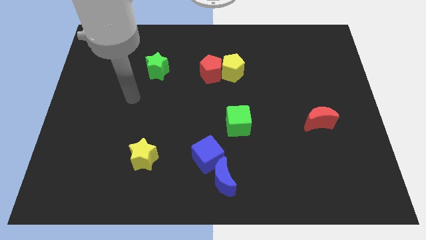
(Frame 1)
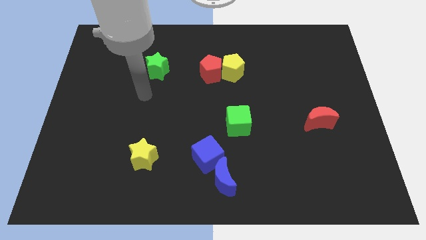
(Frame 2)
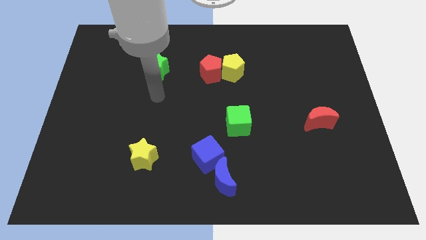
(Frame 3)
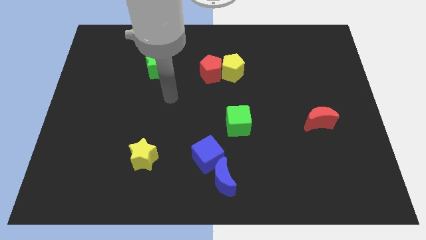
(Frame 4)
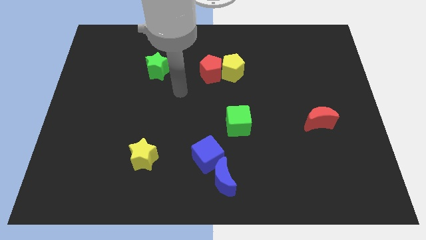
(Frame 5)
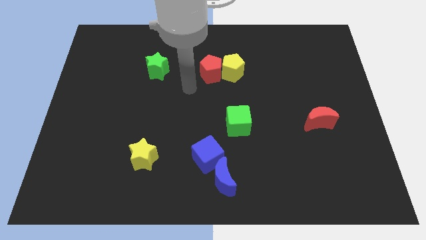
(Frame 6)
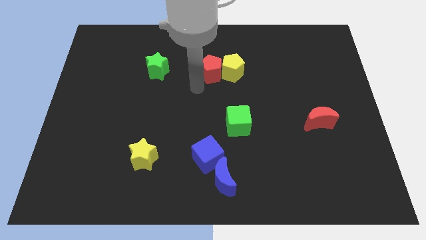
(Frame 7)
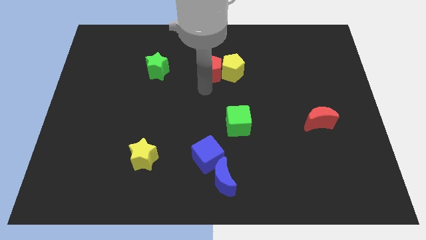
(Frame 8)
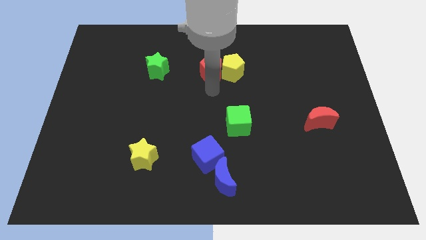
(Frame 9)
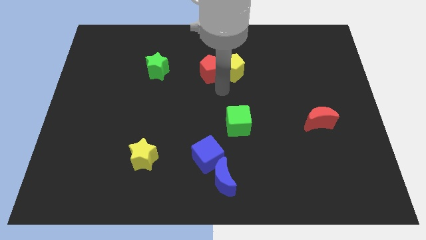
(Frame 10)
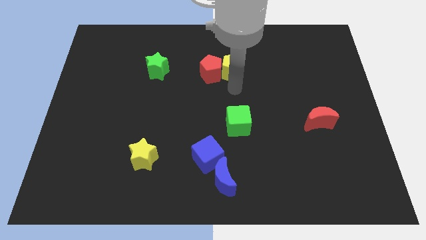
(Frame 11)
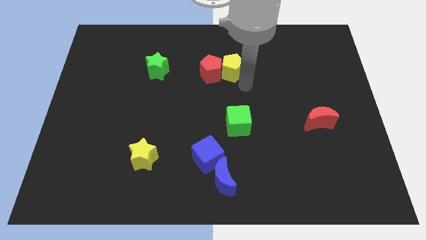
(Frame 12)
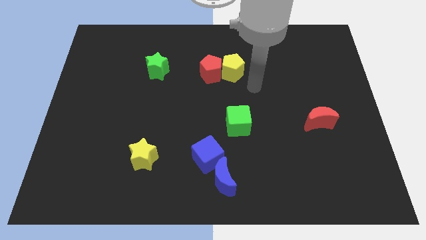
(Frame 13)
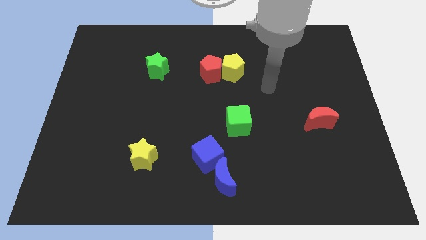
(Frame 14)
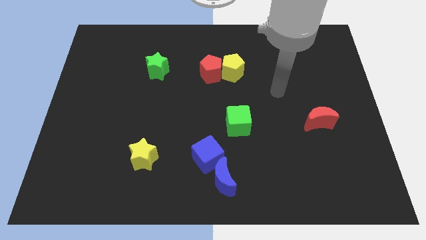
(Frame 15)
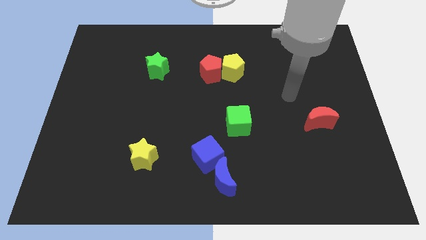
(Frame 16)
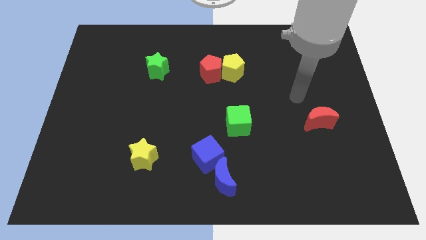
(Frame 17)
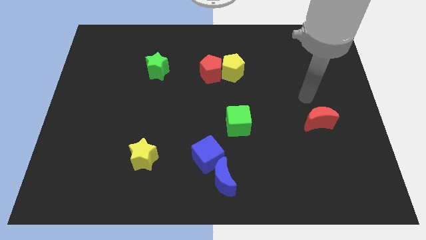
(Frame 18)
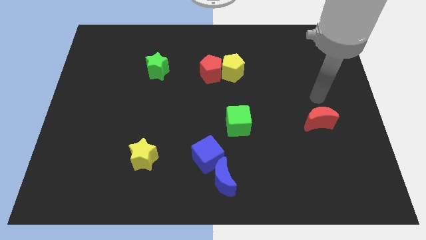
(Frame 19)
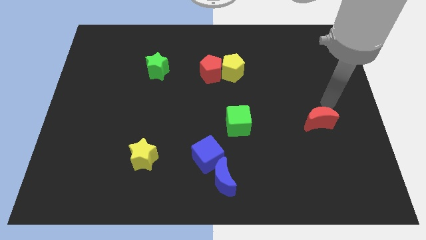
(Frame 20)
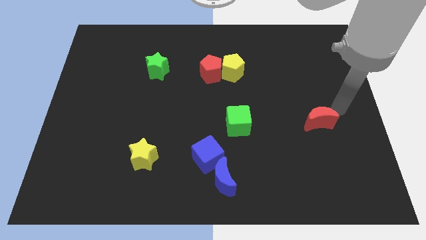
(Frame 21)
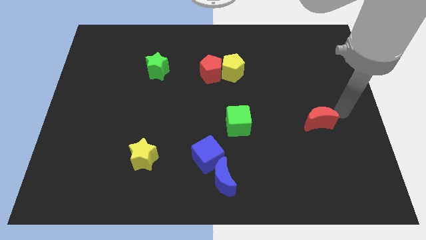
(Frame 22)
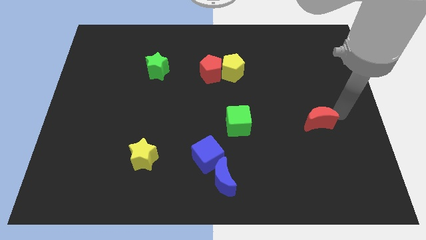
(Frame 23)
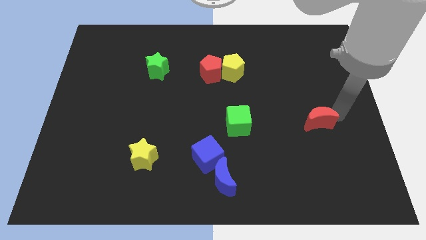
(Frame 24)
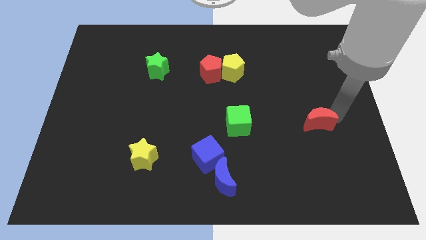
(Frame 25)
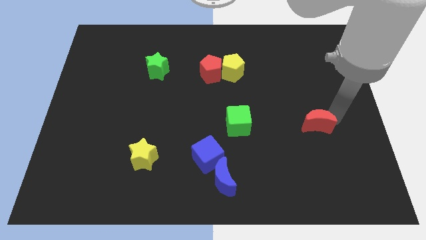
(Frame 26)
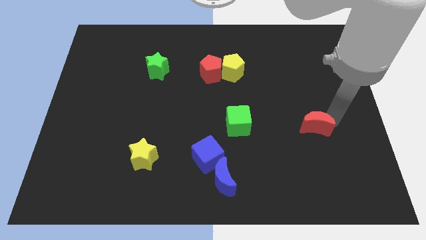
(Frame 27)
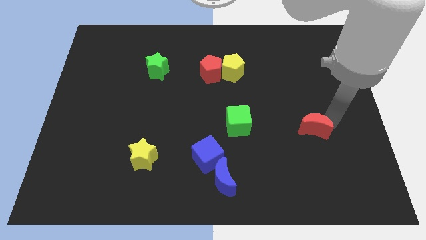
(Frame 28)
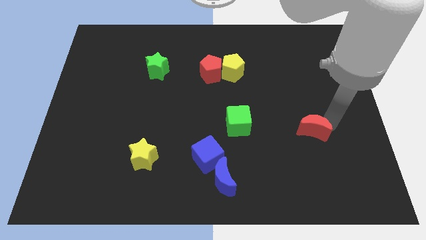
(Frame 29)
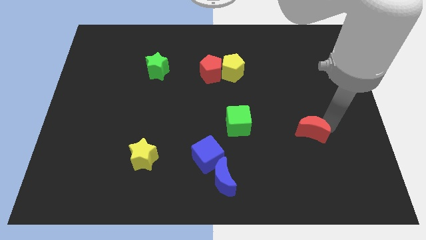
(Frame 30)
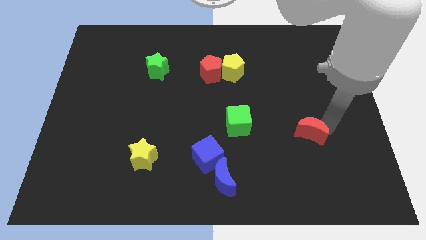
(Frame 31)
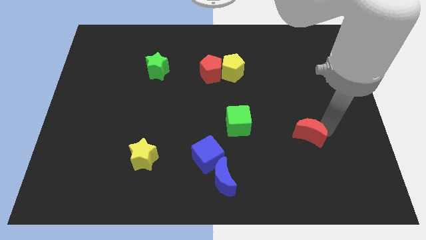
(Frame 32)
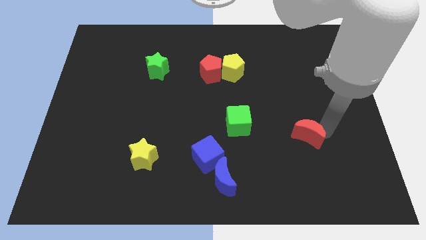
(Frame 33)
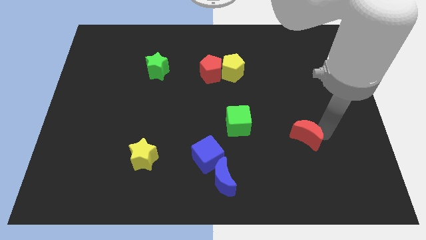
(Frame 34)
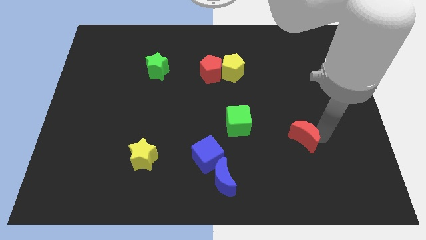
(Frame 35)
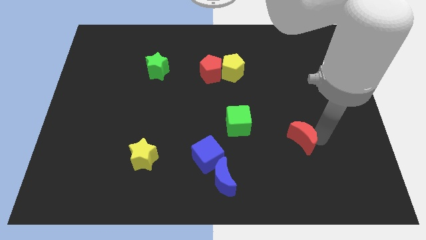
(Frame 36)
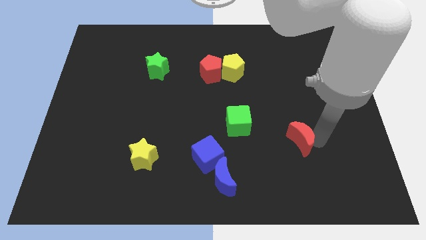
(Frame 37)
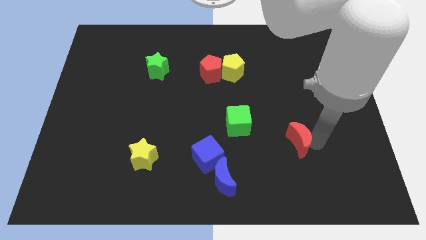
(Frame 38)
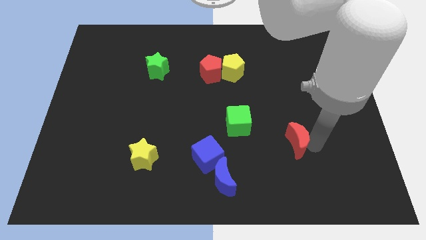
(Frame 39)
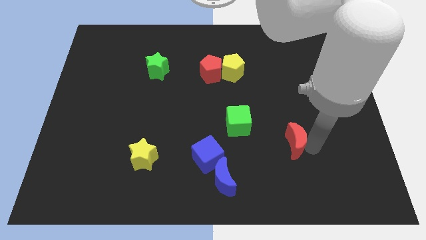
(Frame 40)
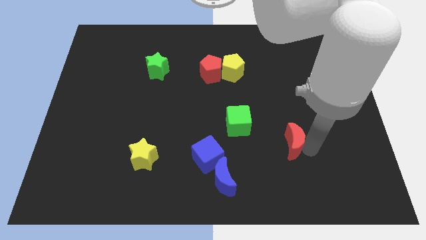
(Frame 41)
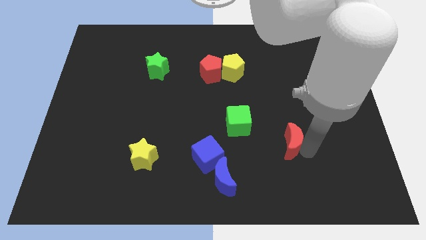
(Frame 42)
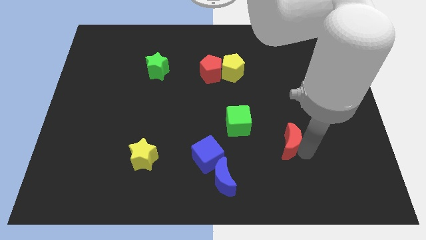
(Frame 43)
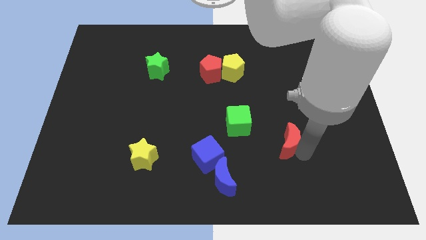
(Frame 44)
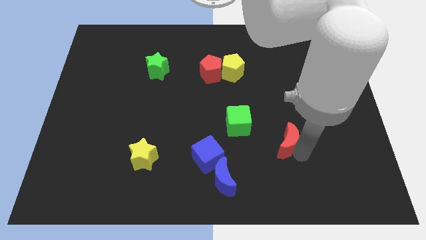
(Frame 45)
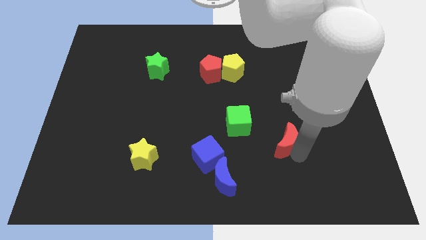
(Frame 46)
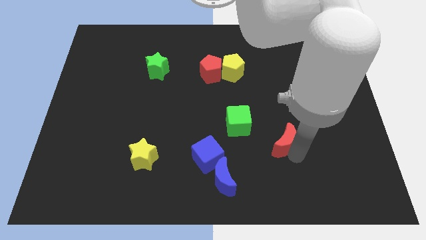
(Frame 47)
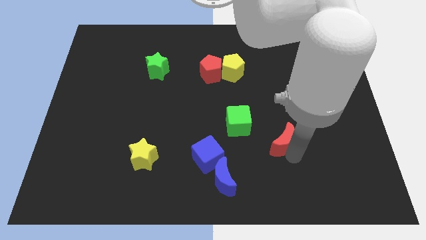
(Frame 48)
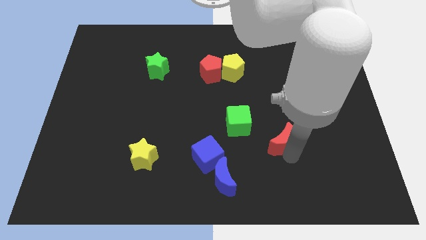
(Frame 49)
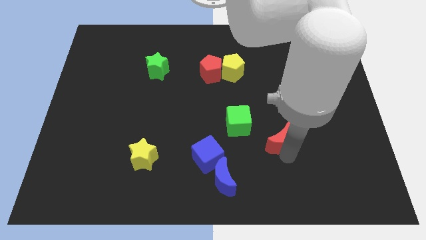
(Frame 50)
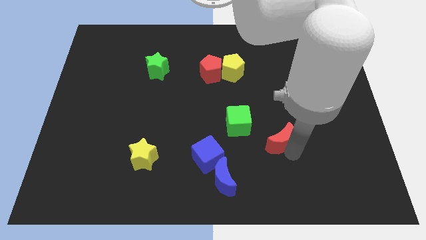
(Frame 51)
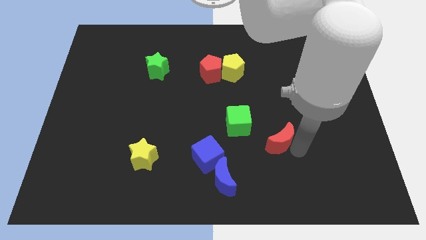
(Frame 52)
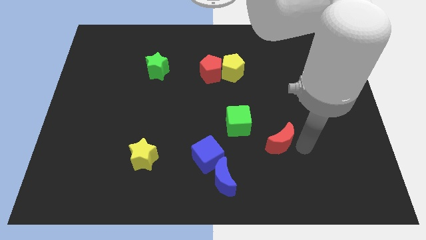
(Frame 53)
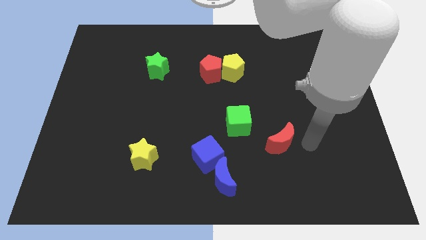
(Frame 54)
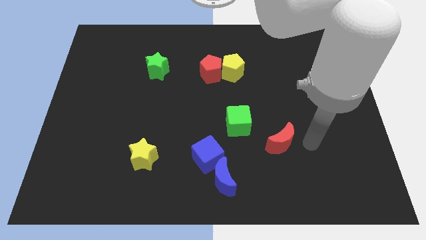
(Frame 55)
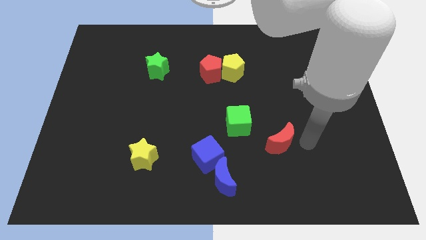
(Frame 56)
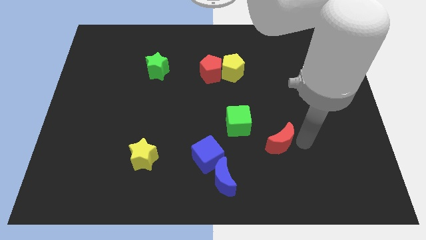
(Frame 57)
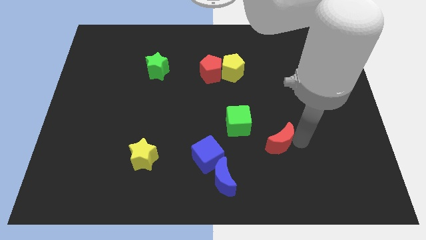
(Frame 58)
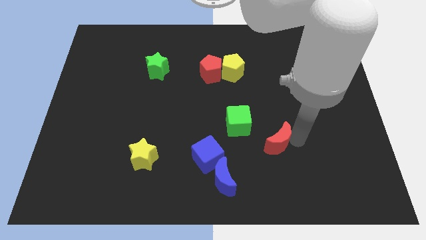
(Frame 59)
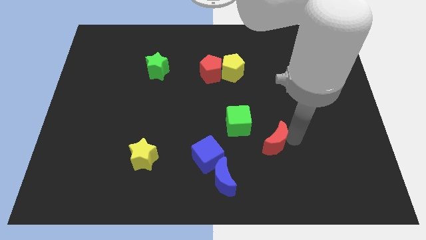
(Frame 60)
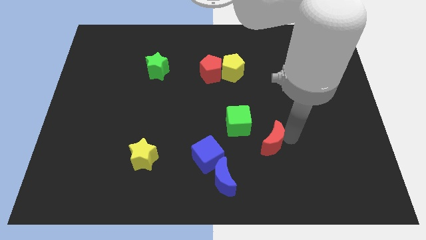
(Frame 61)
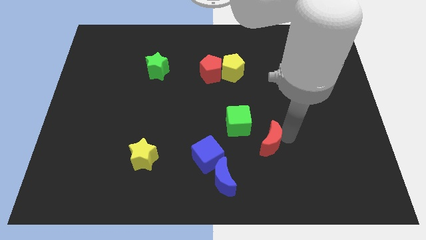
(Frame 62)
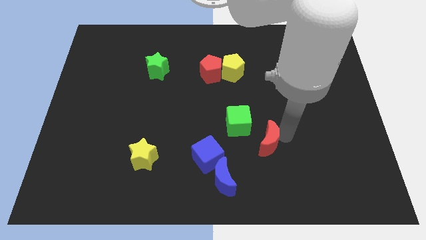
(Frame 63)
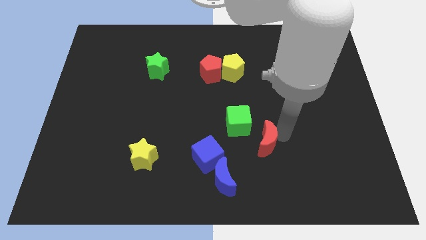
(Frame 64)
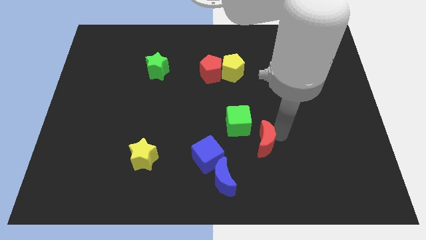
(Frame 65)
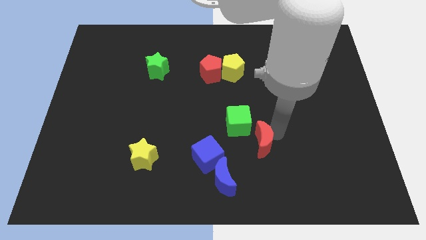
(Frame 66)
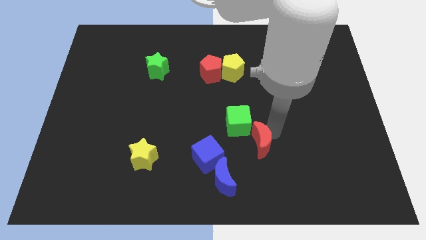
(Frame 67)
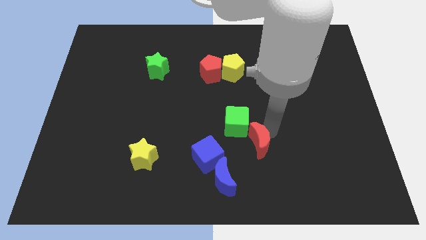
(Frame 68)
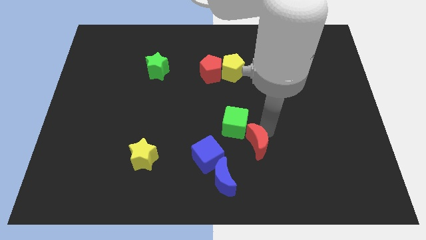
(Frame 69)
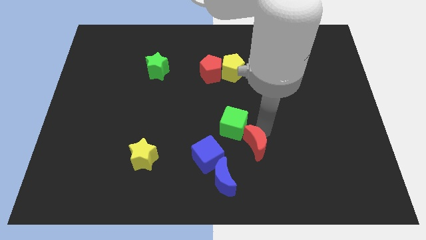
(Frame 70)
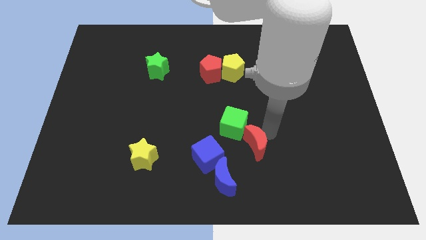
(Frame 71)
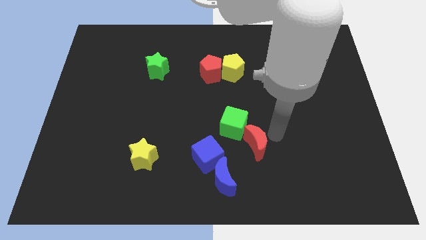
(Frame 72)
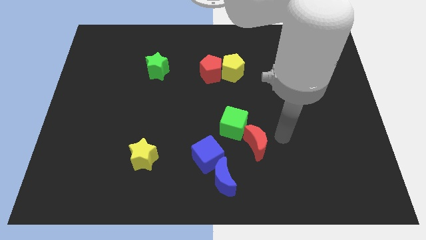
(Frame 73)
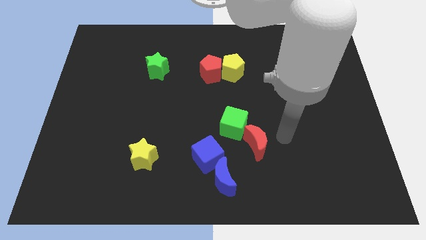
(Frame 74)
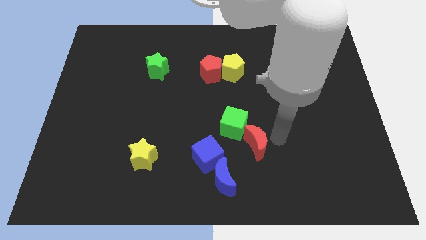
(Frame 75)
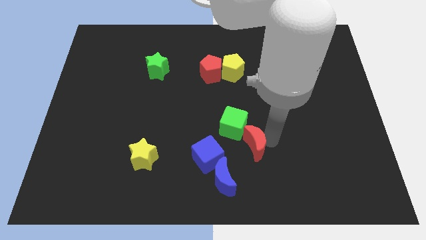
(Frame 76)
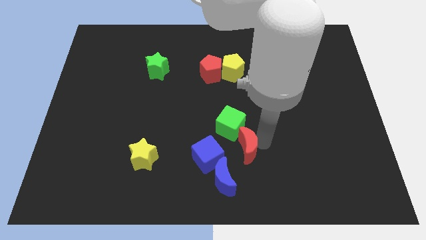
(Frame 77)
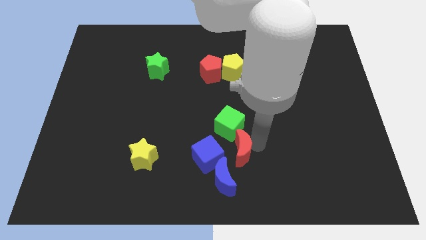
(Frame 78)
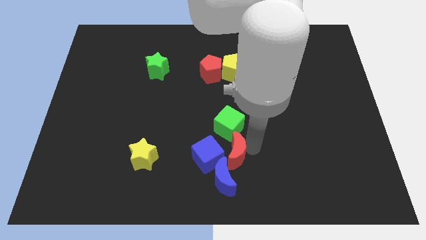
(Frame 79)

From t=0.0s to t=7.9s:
slide the red moon towards the blue cube
